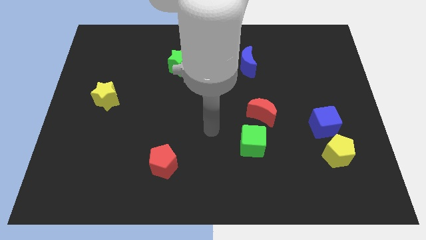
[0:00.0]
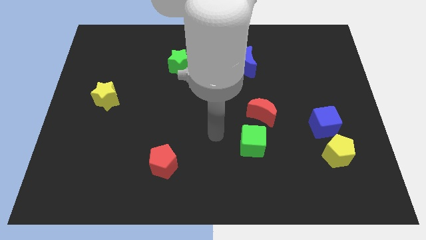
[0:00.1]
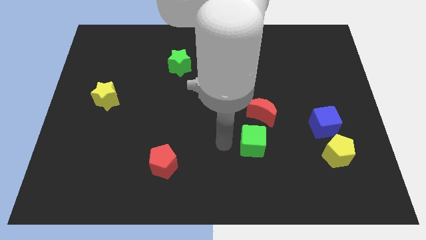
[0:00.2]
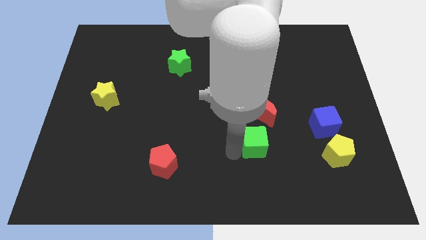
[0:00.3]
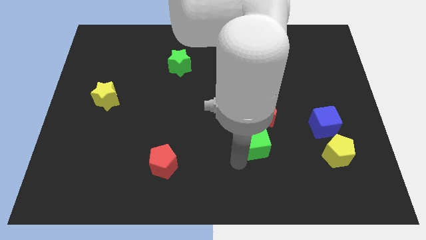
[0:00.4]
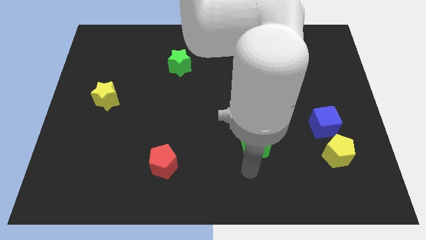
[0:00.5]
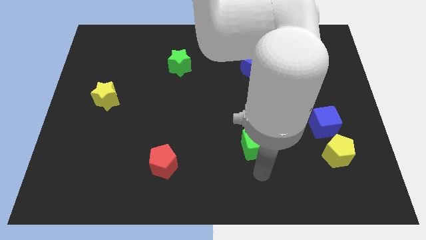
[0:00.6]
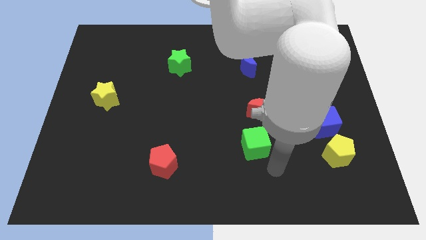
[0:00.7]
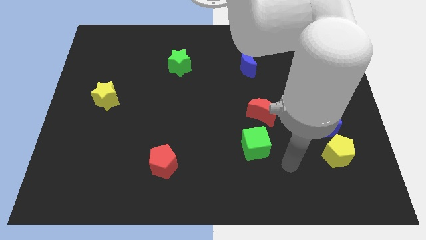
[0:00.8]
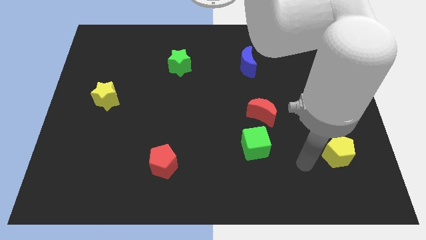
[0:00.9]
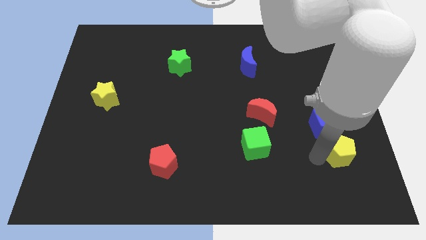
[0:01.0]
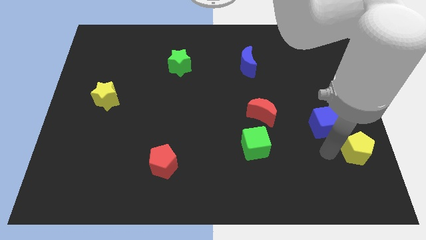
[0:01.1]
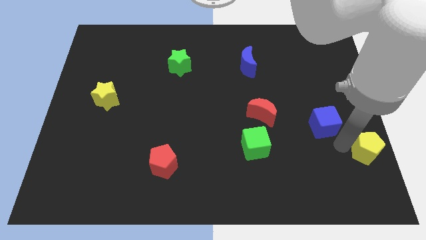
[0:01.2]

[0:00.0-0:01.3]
separate the blue cube from the yellow pentagon

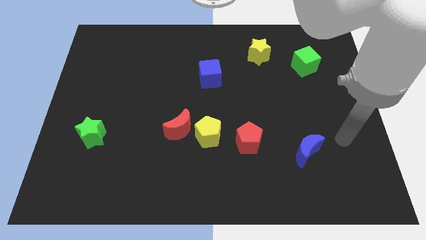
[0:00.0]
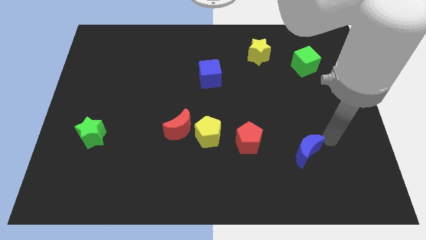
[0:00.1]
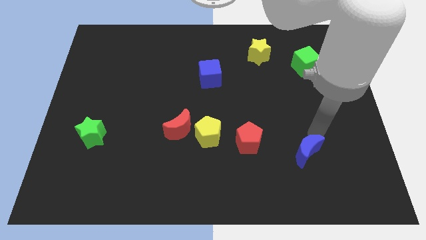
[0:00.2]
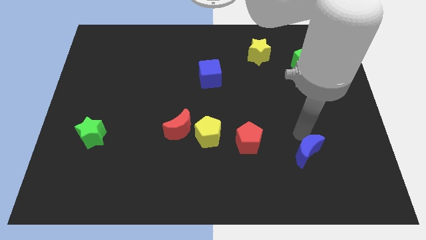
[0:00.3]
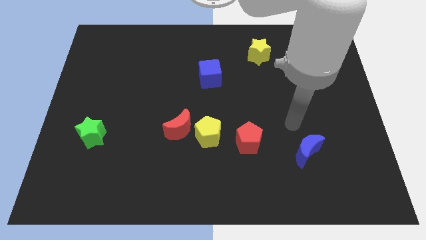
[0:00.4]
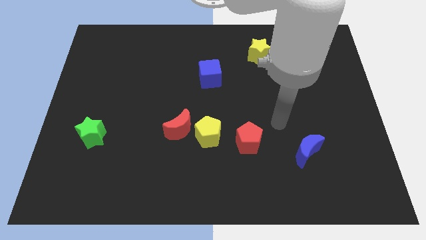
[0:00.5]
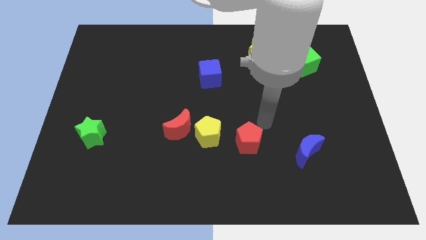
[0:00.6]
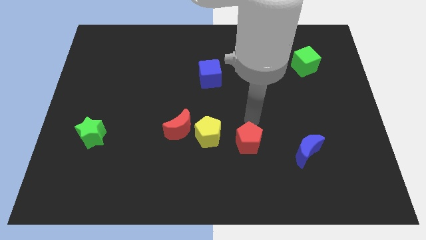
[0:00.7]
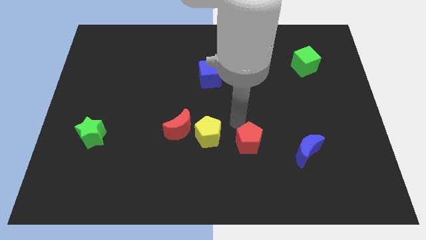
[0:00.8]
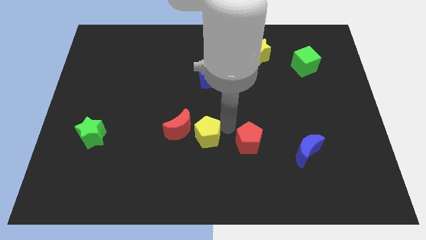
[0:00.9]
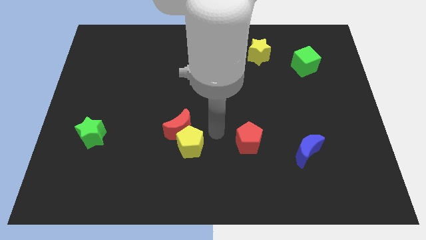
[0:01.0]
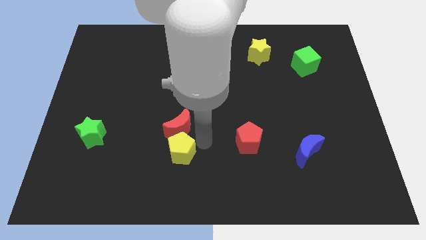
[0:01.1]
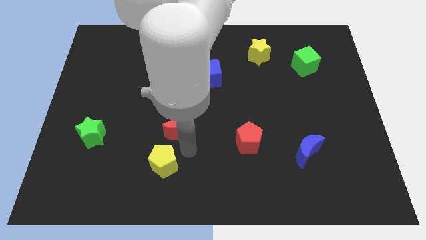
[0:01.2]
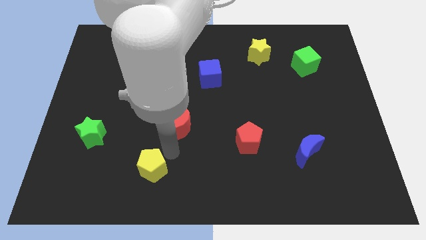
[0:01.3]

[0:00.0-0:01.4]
separate the red moon from the yellow pentagon

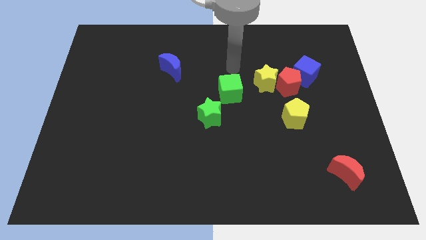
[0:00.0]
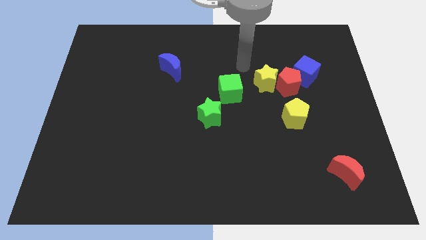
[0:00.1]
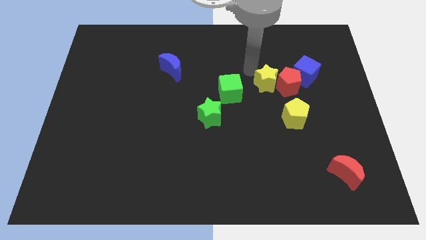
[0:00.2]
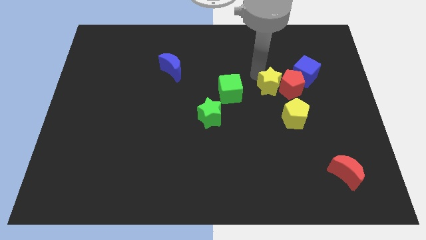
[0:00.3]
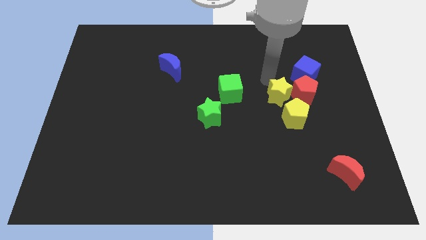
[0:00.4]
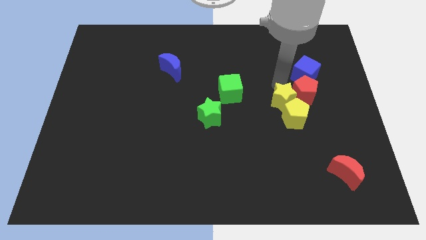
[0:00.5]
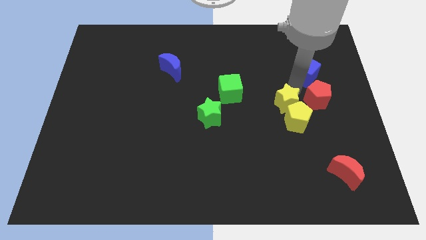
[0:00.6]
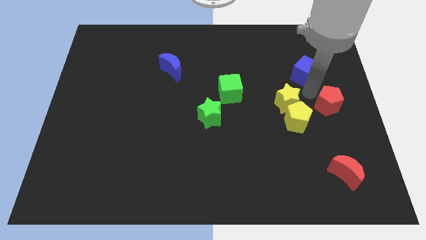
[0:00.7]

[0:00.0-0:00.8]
separate the blue cube from the red pentagon

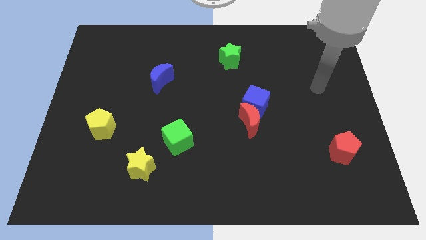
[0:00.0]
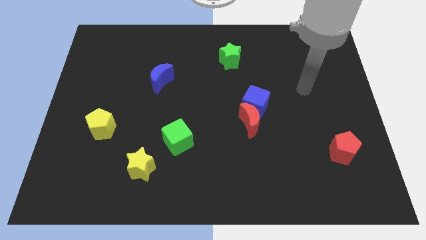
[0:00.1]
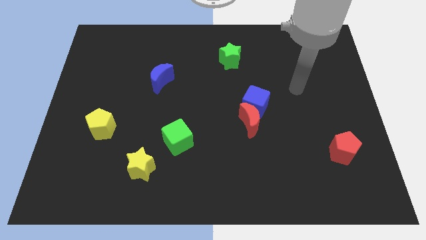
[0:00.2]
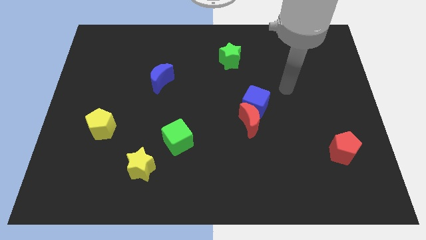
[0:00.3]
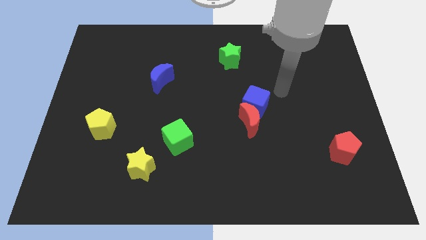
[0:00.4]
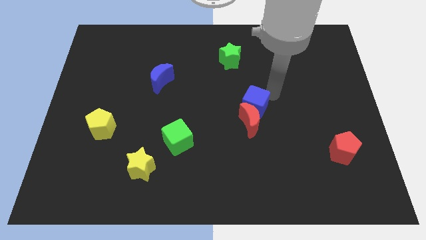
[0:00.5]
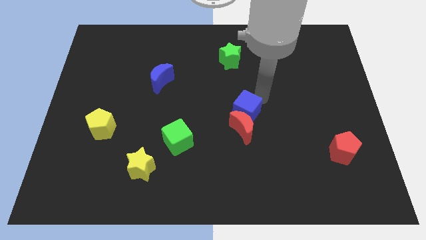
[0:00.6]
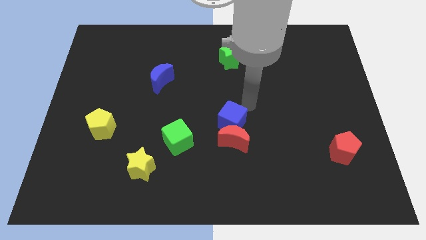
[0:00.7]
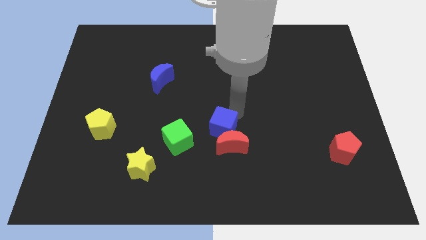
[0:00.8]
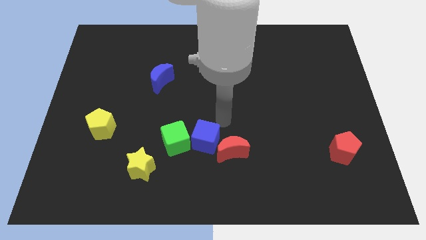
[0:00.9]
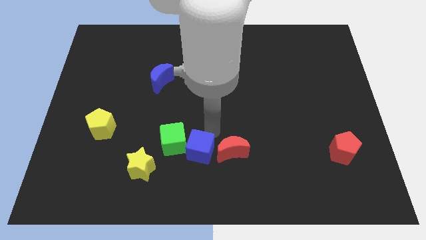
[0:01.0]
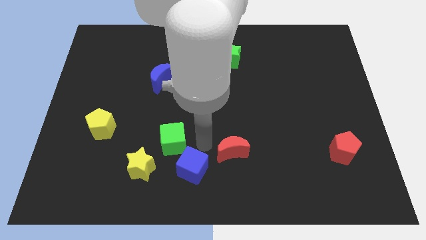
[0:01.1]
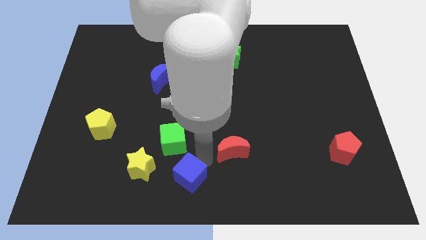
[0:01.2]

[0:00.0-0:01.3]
pull the red moon apart from the blue cube

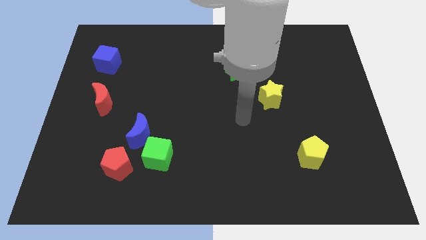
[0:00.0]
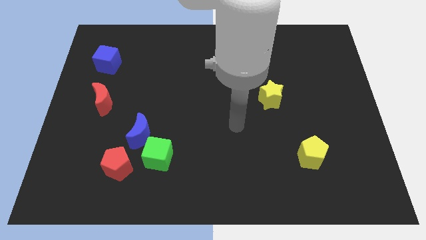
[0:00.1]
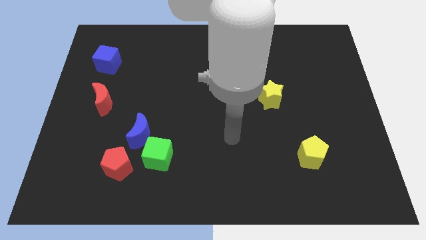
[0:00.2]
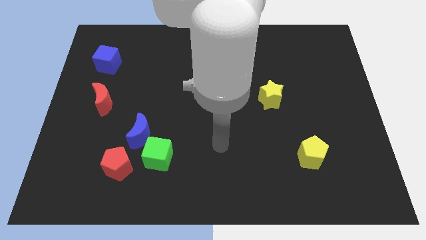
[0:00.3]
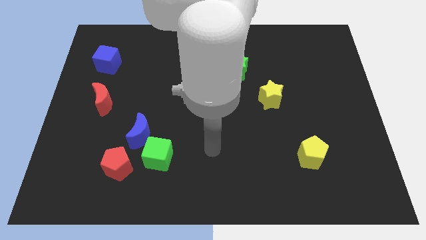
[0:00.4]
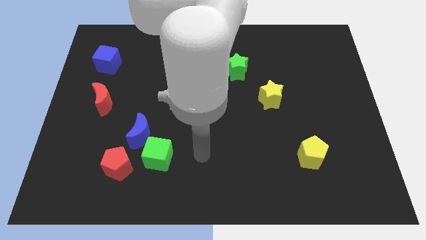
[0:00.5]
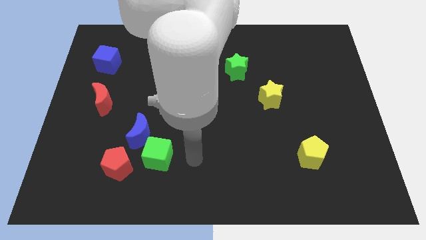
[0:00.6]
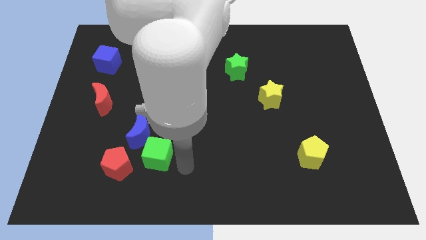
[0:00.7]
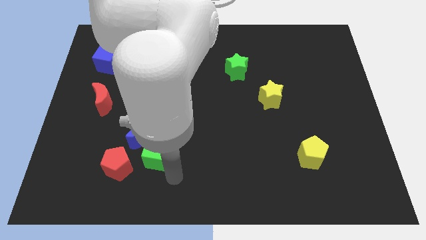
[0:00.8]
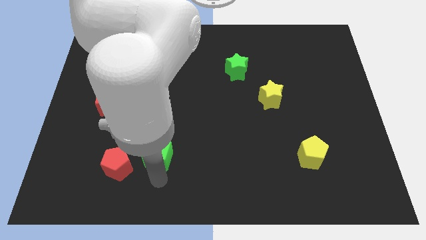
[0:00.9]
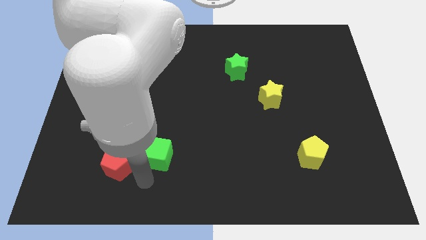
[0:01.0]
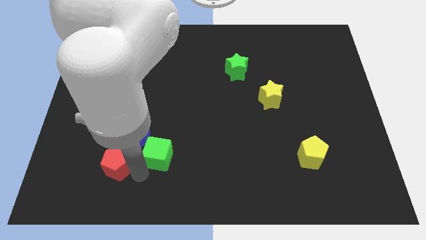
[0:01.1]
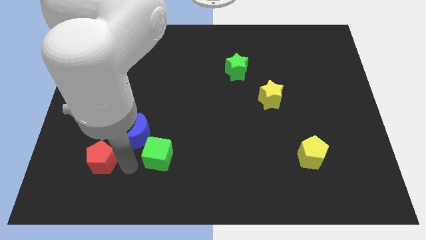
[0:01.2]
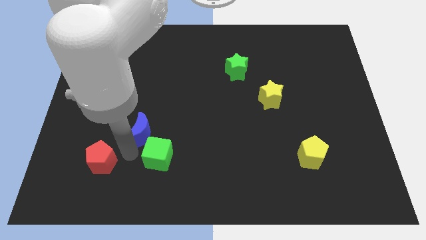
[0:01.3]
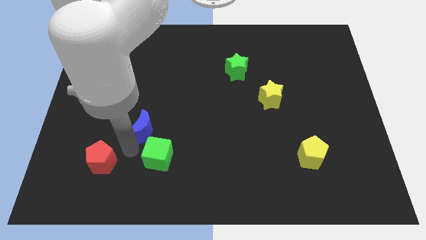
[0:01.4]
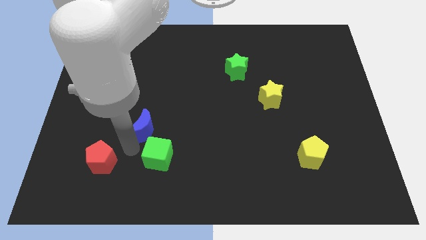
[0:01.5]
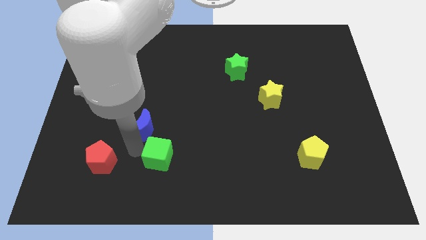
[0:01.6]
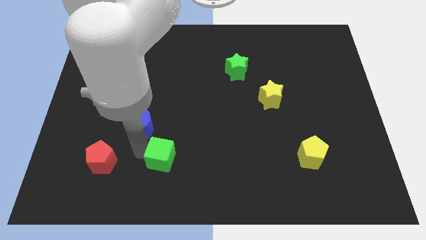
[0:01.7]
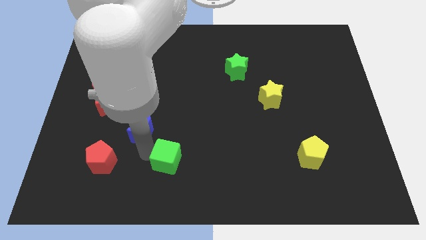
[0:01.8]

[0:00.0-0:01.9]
pull the green cube apart from the blue moon and red pentagon

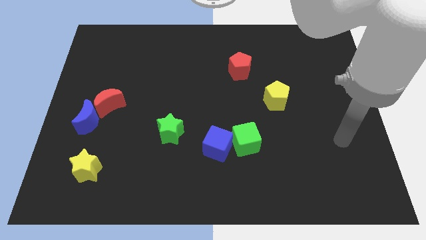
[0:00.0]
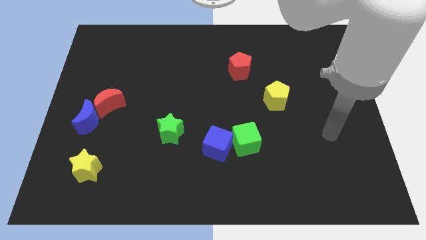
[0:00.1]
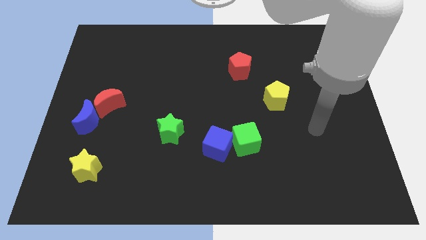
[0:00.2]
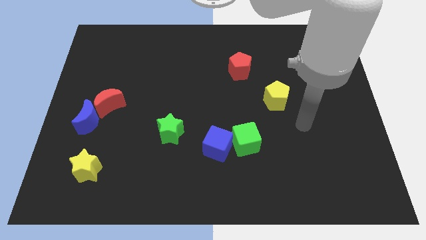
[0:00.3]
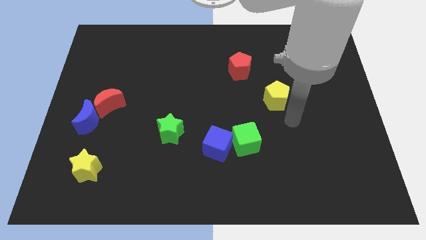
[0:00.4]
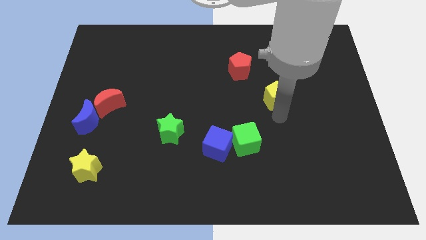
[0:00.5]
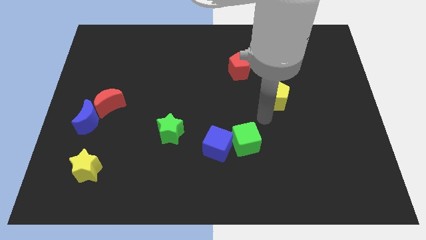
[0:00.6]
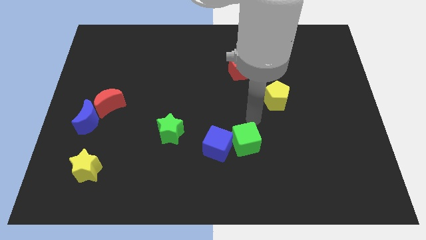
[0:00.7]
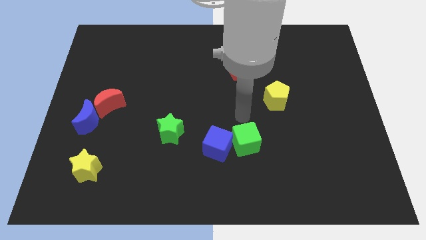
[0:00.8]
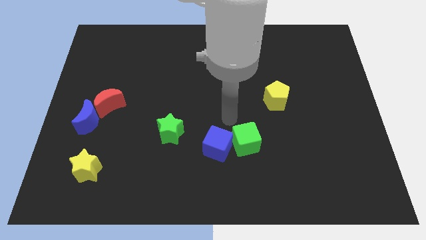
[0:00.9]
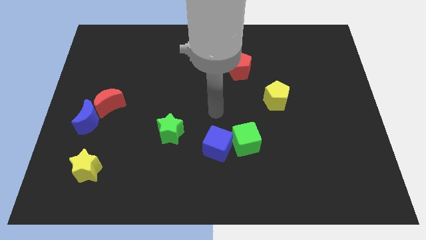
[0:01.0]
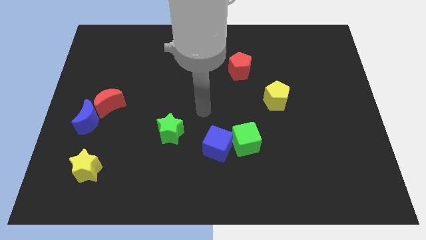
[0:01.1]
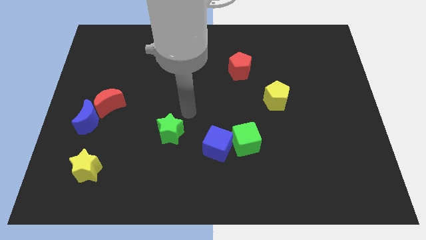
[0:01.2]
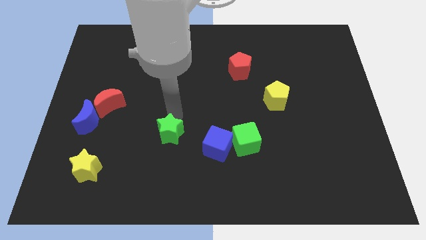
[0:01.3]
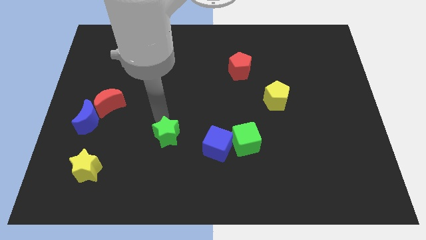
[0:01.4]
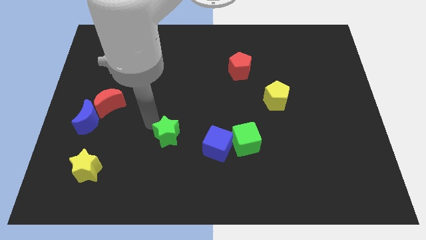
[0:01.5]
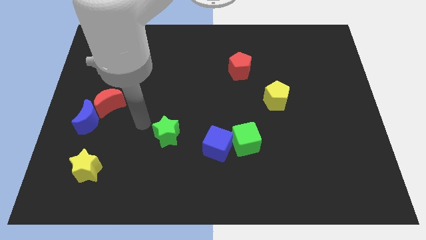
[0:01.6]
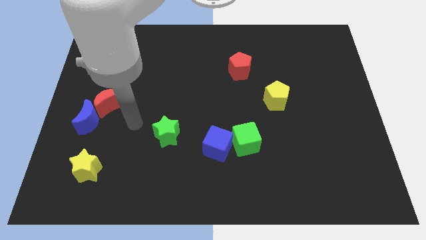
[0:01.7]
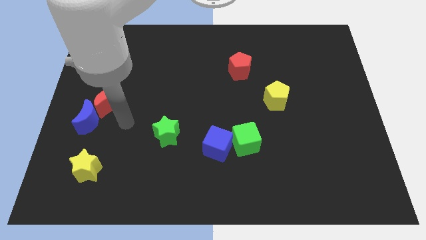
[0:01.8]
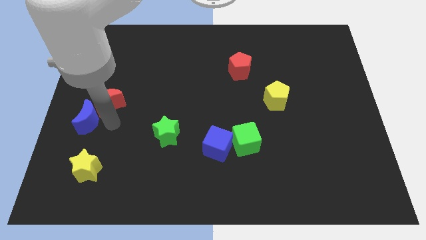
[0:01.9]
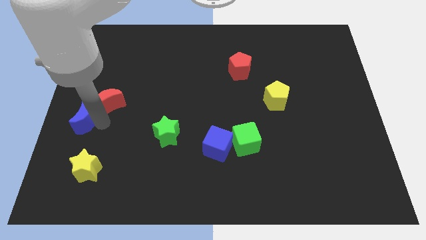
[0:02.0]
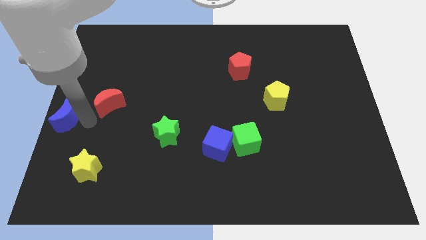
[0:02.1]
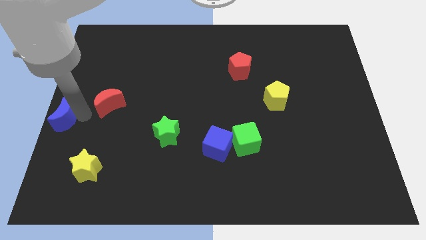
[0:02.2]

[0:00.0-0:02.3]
move the red moon away from the blue moon

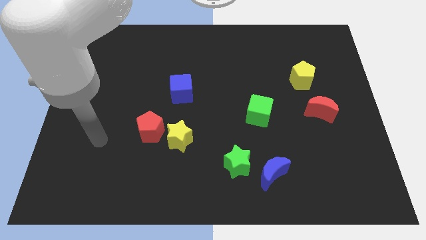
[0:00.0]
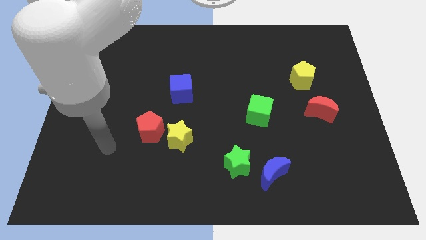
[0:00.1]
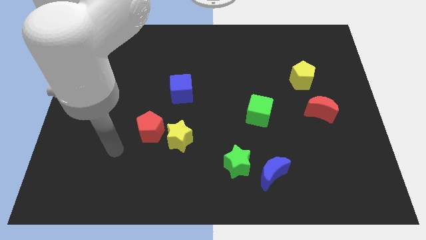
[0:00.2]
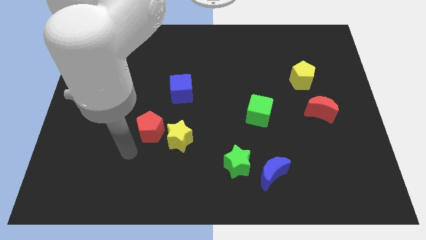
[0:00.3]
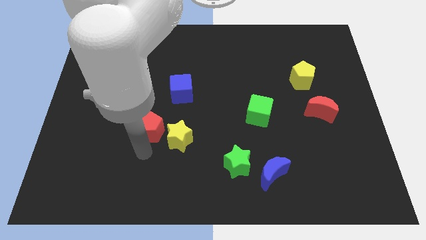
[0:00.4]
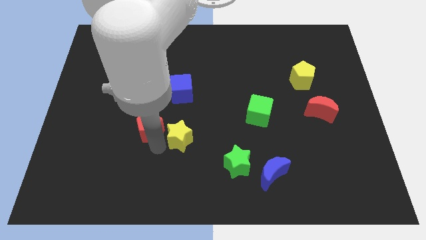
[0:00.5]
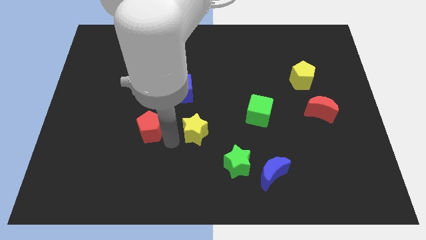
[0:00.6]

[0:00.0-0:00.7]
pull the red pentagon apart from the yellow star
